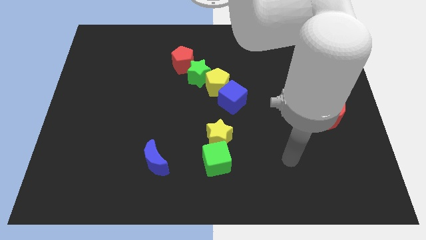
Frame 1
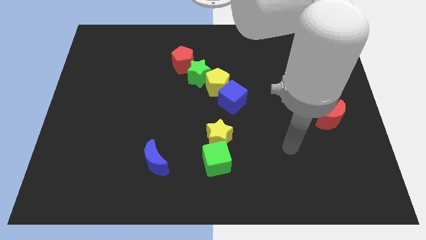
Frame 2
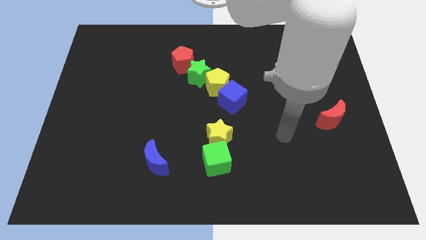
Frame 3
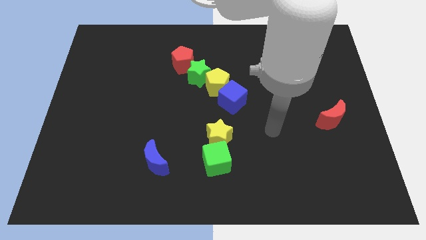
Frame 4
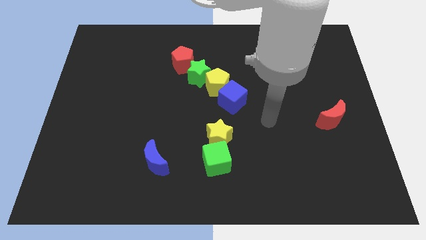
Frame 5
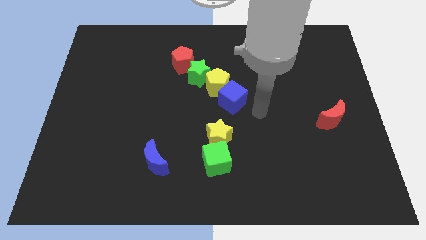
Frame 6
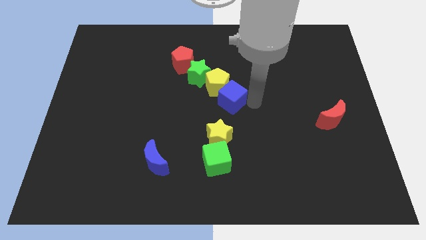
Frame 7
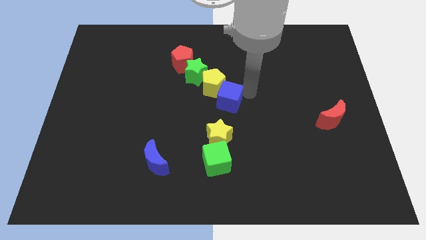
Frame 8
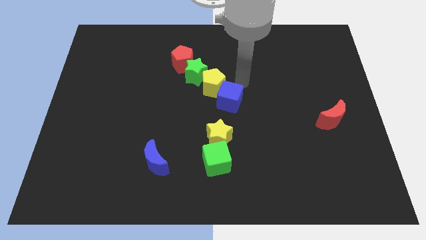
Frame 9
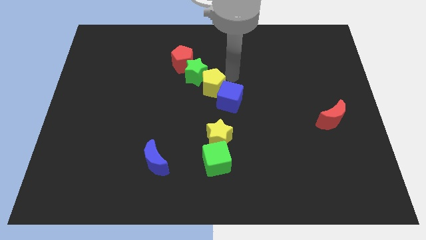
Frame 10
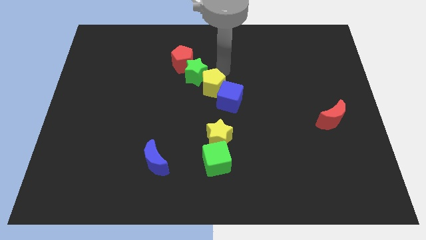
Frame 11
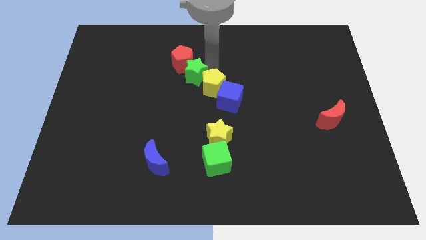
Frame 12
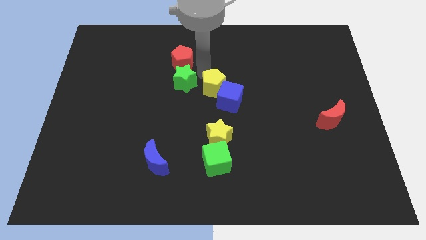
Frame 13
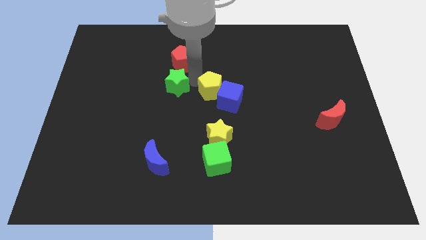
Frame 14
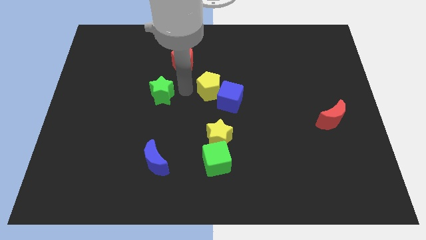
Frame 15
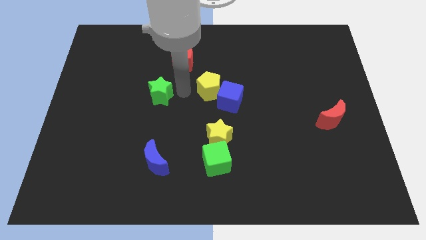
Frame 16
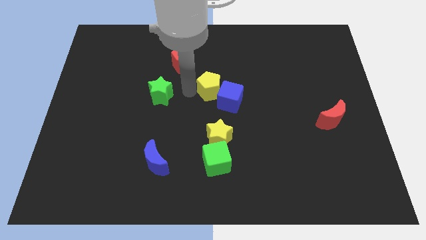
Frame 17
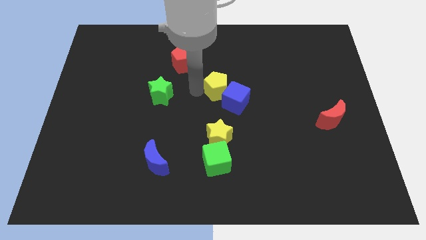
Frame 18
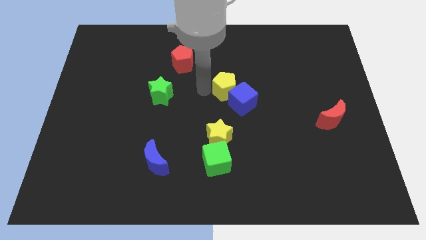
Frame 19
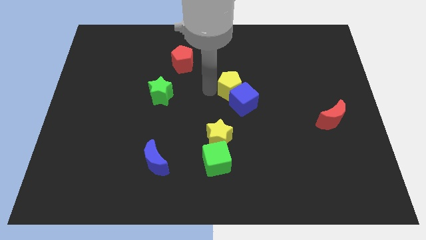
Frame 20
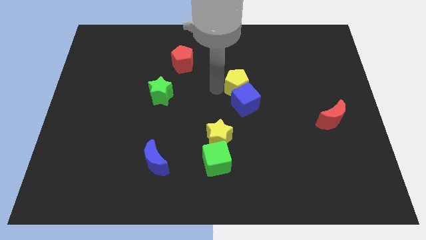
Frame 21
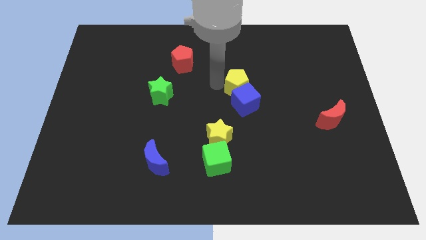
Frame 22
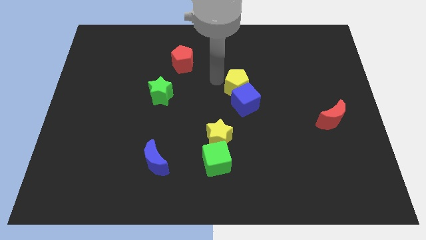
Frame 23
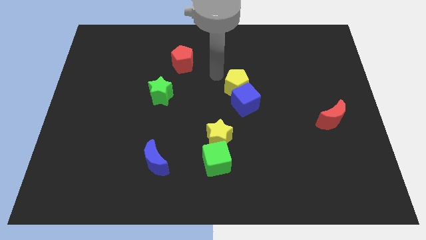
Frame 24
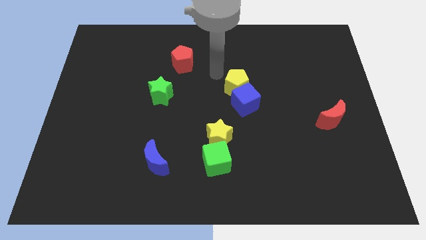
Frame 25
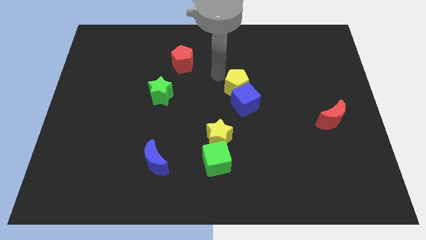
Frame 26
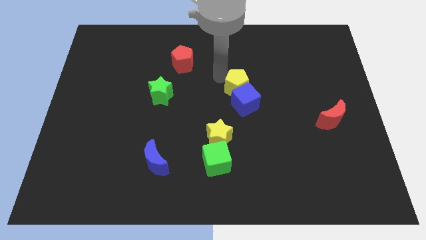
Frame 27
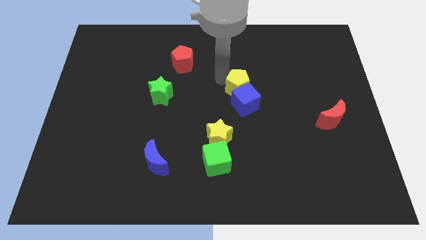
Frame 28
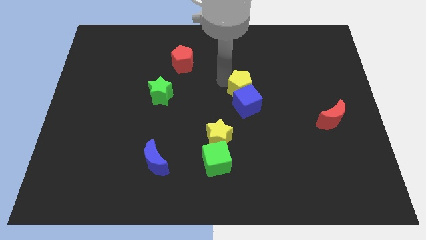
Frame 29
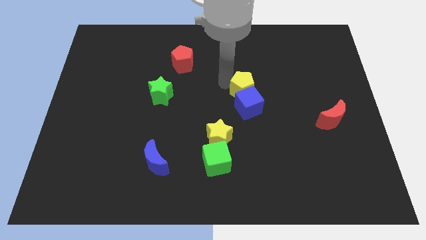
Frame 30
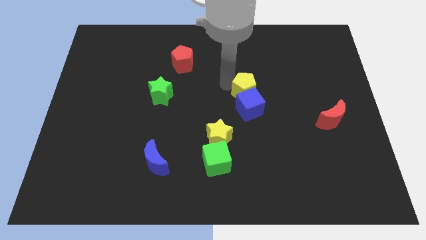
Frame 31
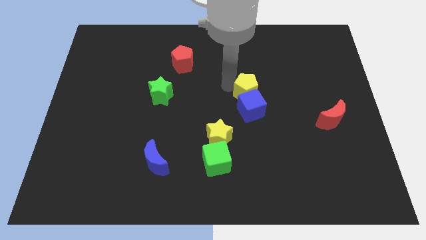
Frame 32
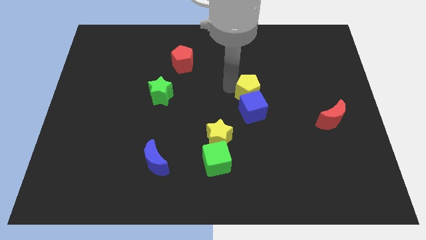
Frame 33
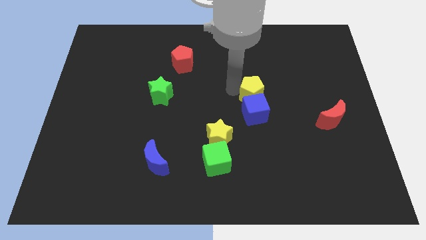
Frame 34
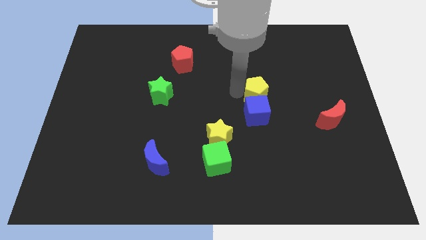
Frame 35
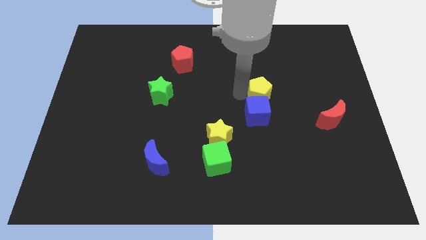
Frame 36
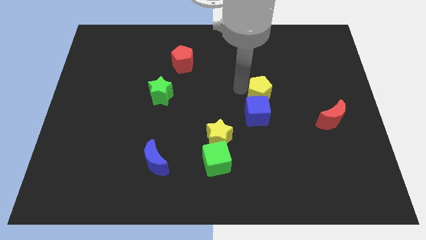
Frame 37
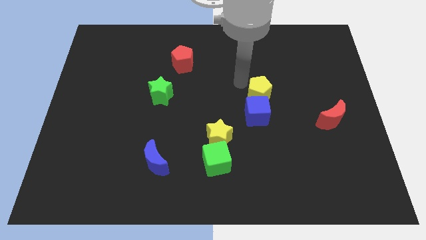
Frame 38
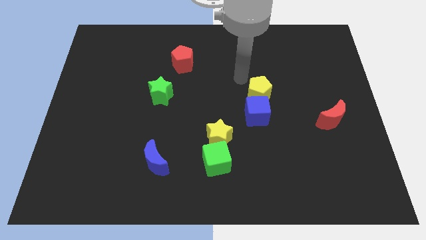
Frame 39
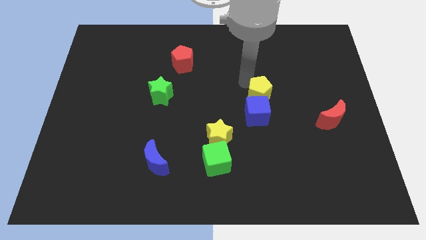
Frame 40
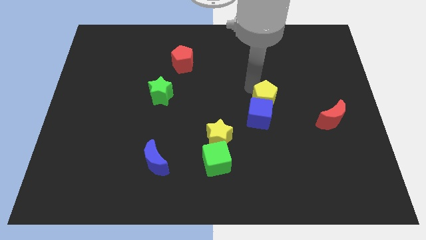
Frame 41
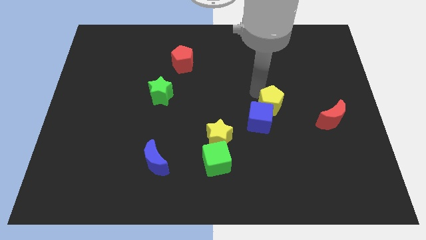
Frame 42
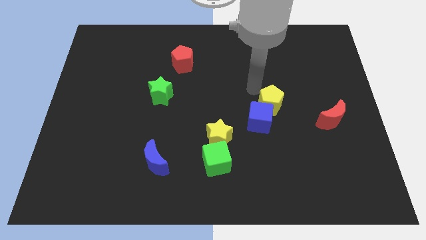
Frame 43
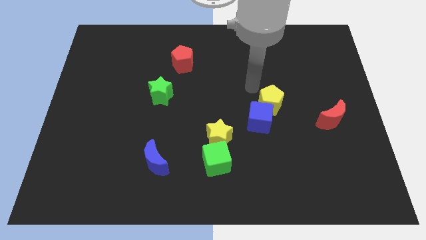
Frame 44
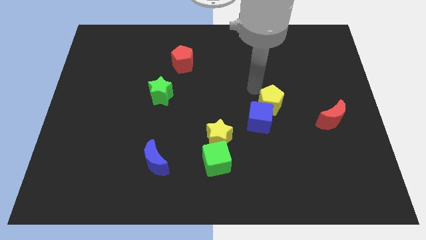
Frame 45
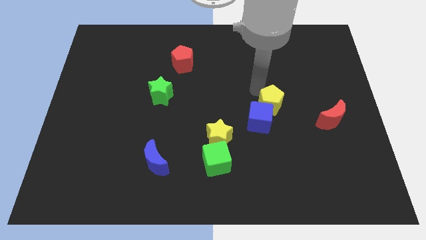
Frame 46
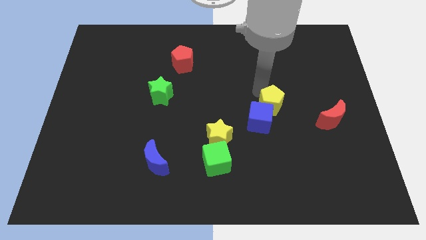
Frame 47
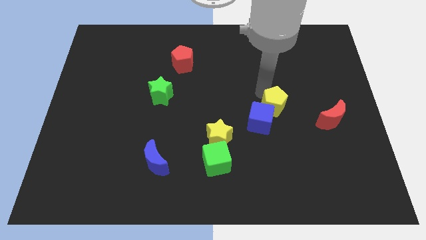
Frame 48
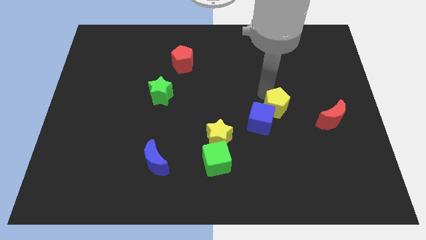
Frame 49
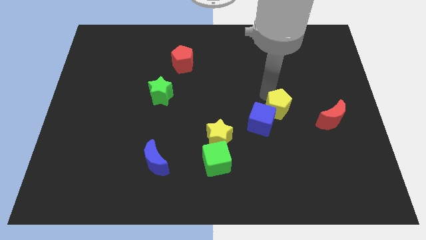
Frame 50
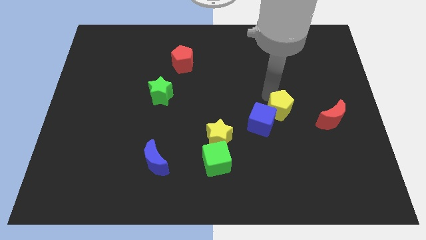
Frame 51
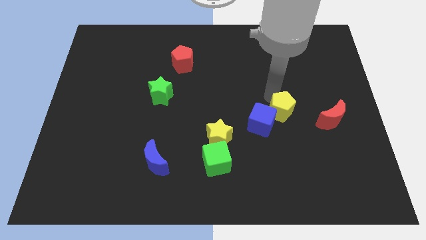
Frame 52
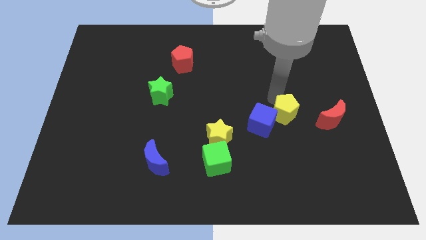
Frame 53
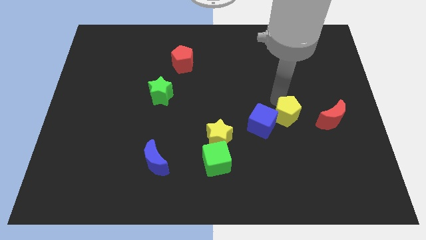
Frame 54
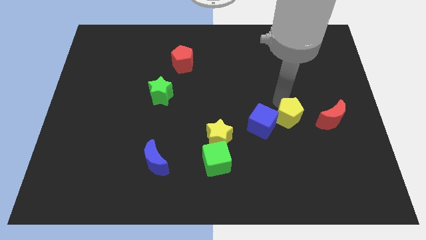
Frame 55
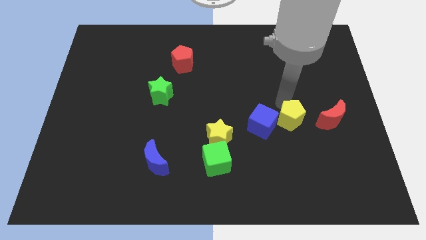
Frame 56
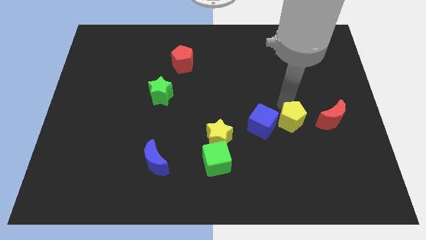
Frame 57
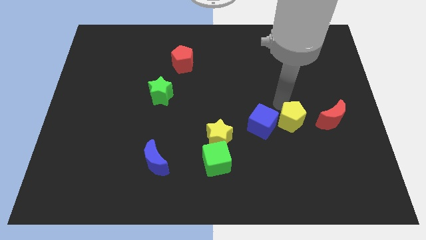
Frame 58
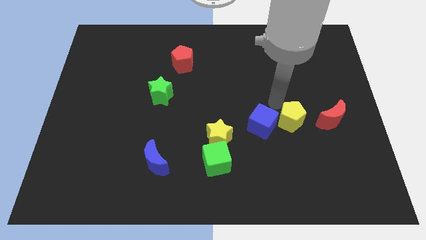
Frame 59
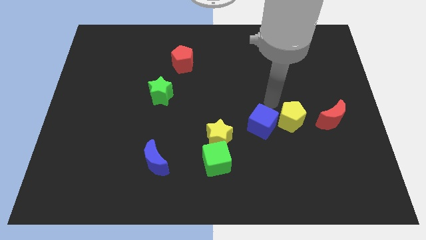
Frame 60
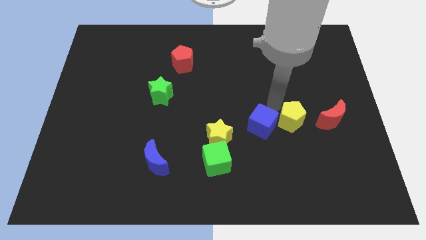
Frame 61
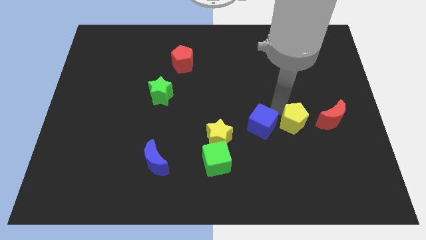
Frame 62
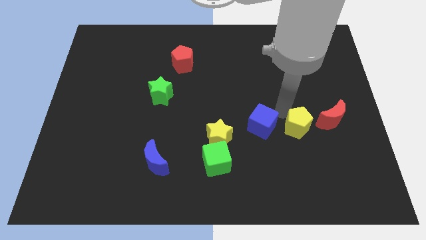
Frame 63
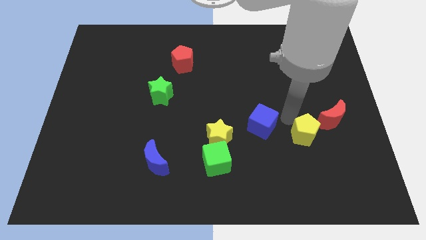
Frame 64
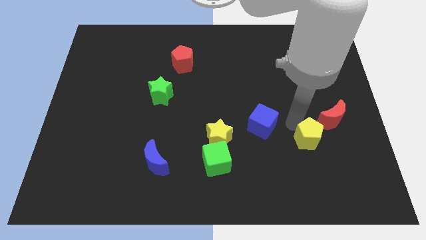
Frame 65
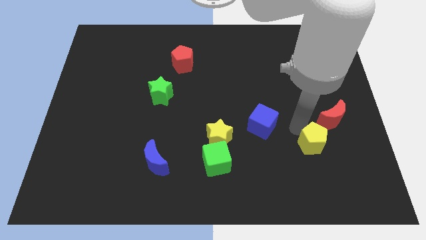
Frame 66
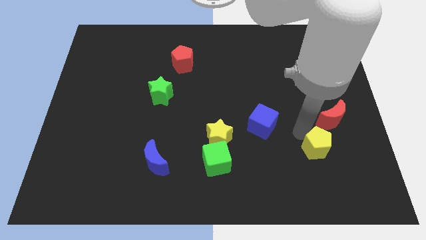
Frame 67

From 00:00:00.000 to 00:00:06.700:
slide the yellow pentagon to the bottom of the red moon
